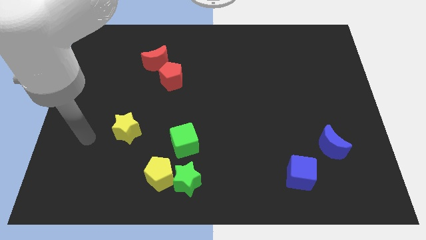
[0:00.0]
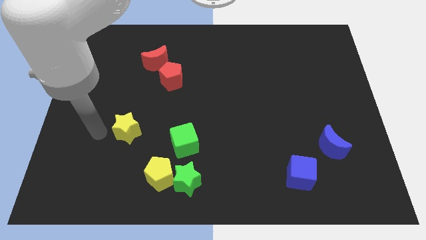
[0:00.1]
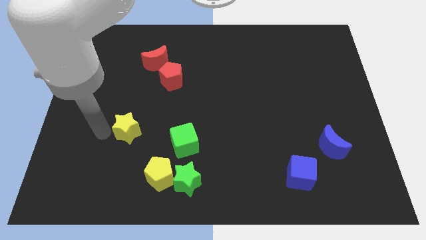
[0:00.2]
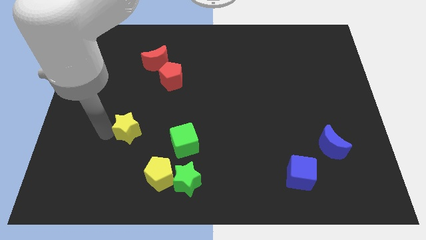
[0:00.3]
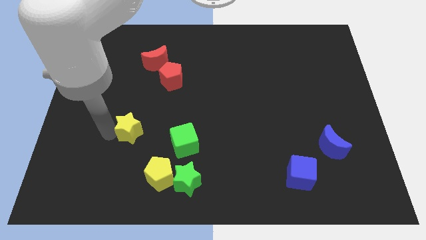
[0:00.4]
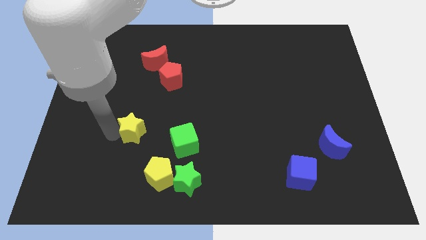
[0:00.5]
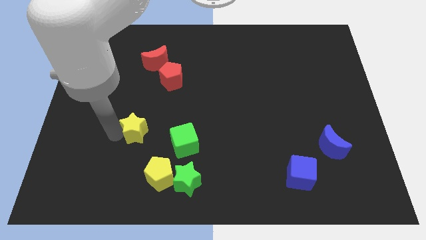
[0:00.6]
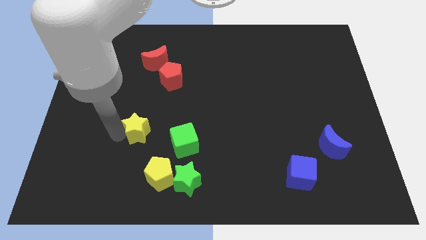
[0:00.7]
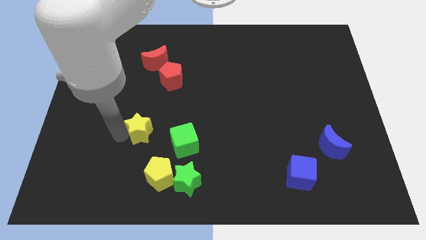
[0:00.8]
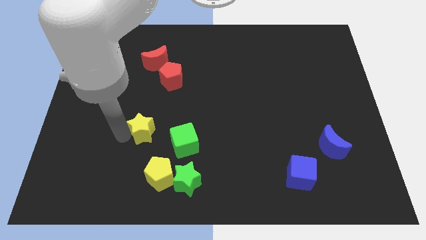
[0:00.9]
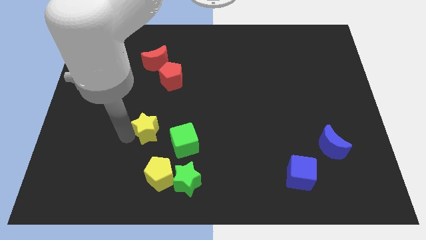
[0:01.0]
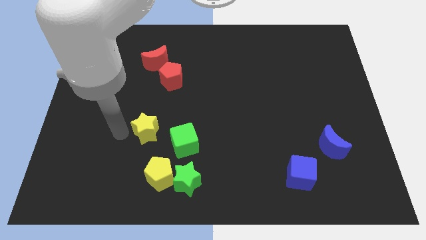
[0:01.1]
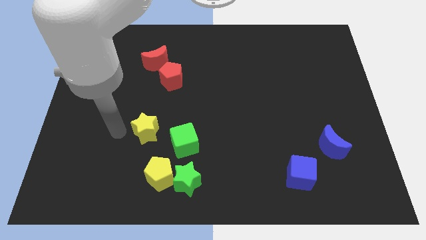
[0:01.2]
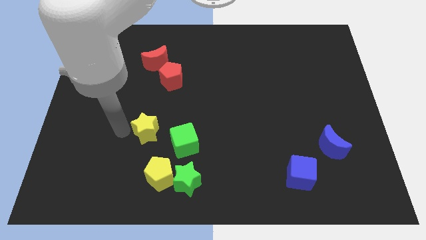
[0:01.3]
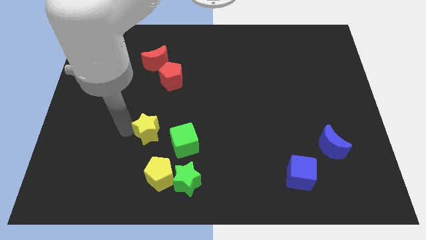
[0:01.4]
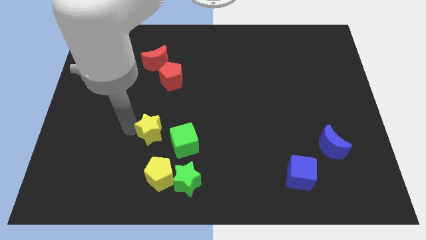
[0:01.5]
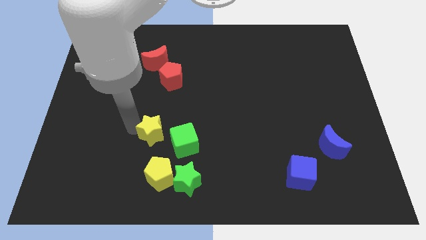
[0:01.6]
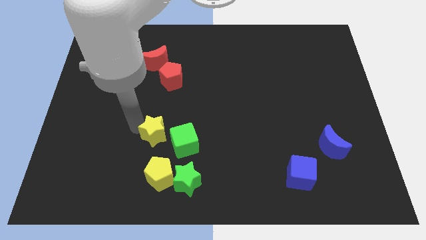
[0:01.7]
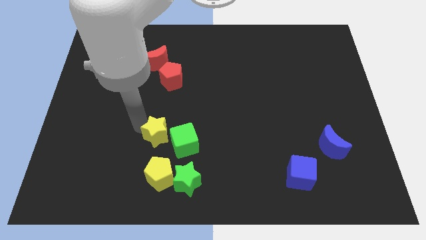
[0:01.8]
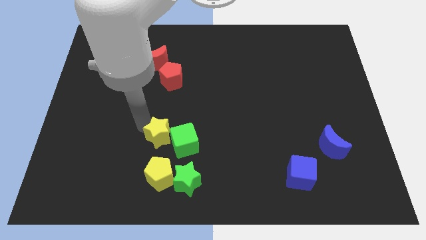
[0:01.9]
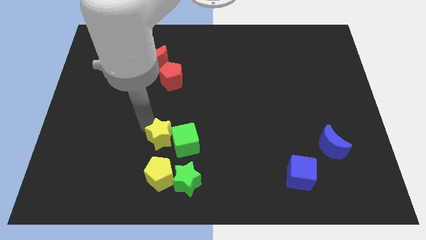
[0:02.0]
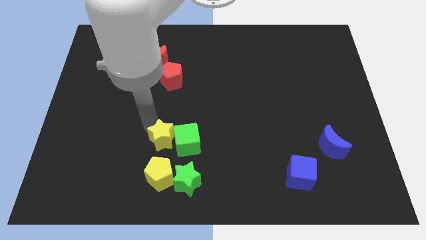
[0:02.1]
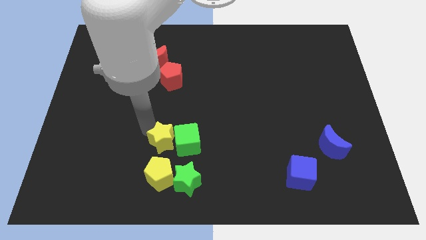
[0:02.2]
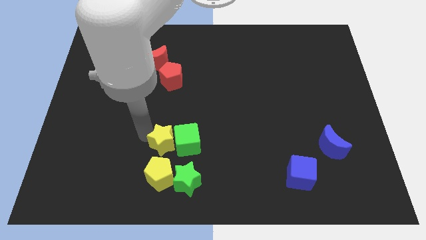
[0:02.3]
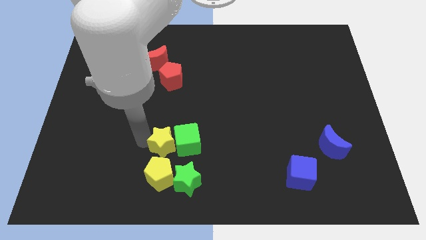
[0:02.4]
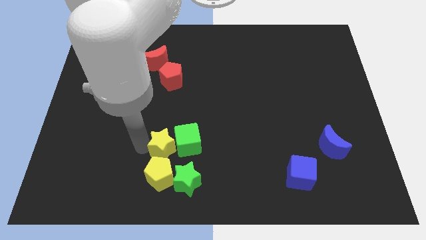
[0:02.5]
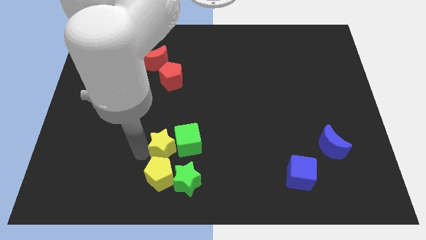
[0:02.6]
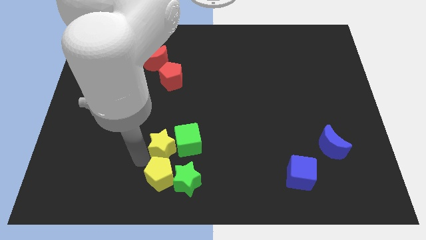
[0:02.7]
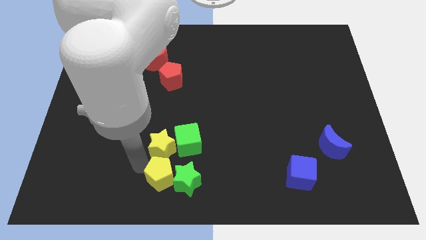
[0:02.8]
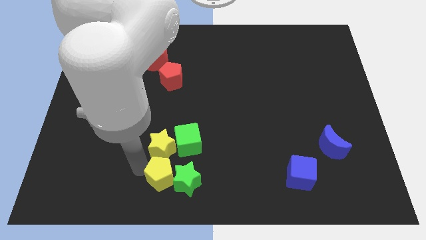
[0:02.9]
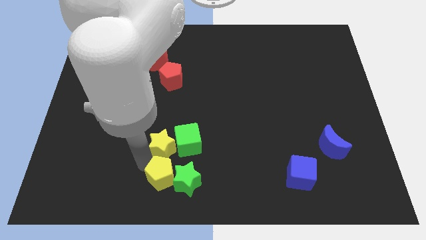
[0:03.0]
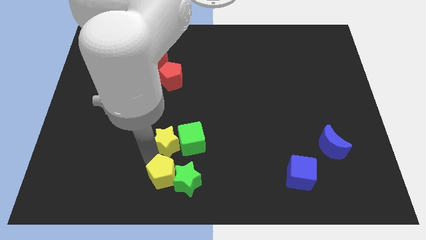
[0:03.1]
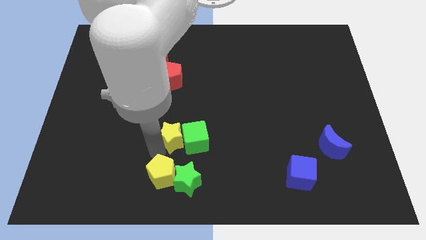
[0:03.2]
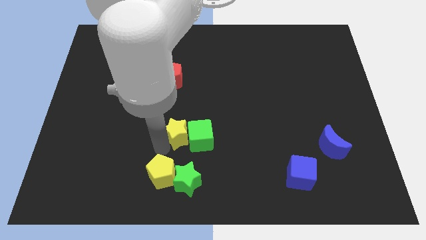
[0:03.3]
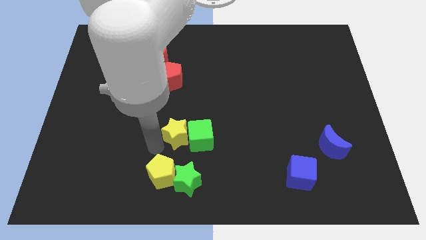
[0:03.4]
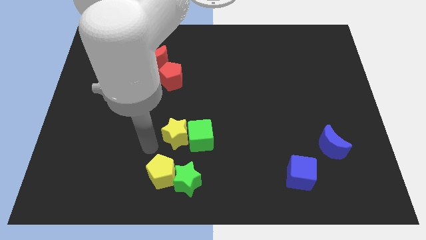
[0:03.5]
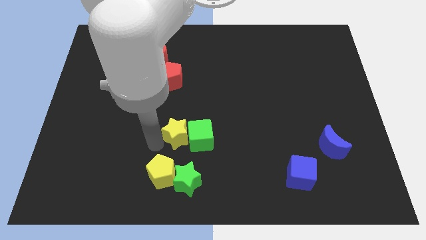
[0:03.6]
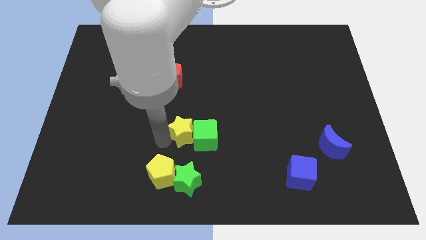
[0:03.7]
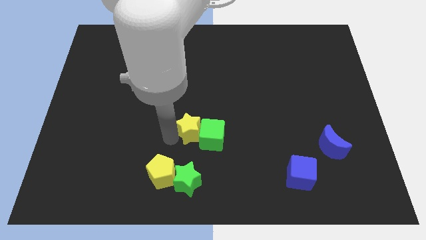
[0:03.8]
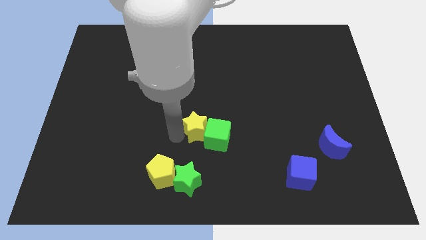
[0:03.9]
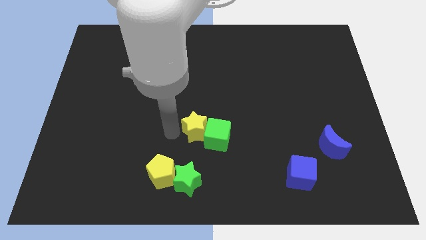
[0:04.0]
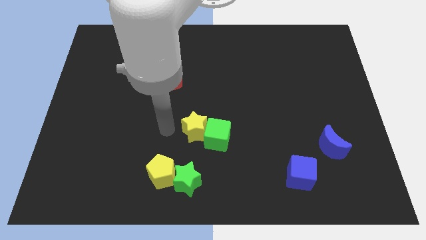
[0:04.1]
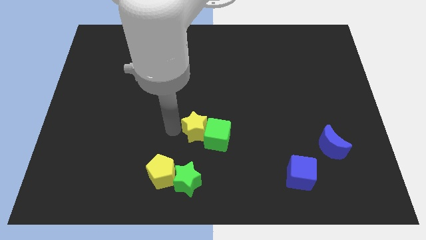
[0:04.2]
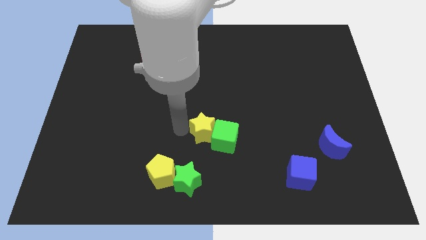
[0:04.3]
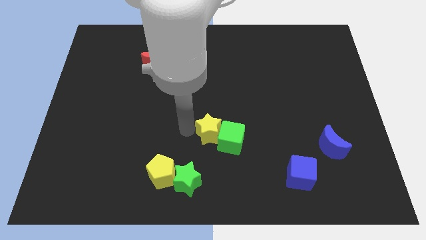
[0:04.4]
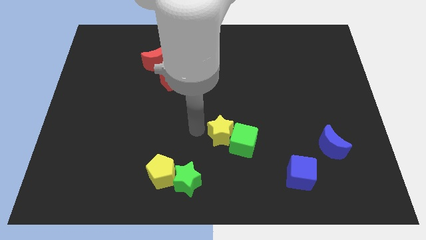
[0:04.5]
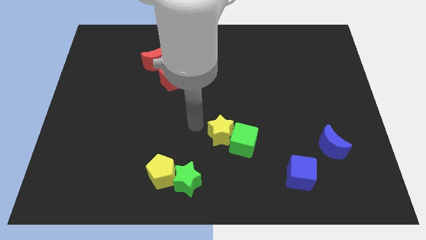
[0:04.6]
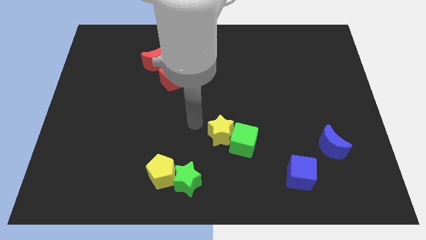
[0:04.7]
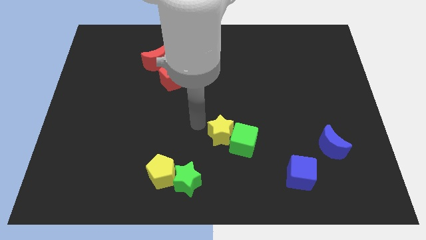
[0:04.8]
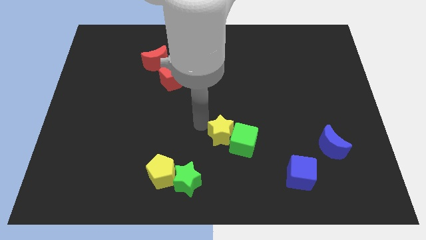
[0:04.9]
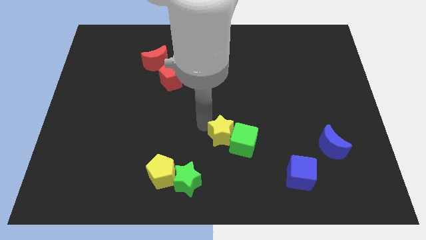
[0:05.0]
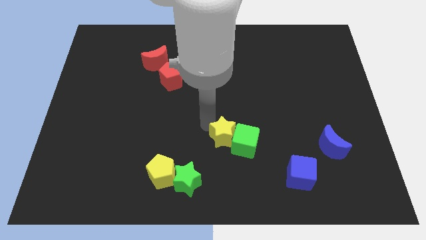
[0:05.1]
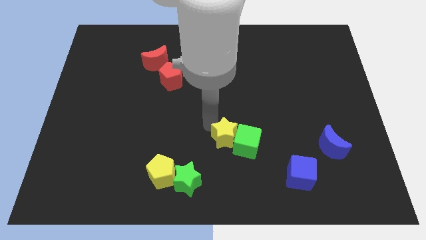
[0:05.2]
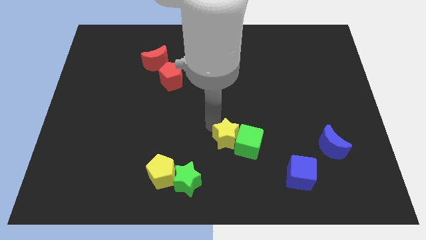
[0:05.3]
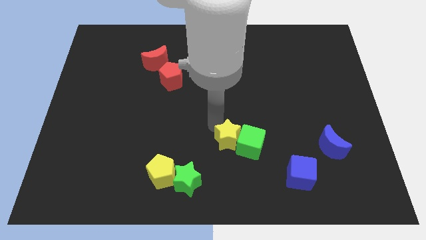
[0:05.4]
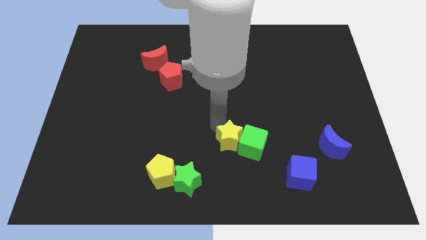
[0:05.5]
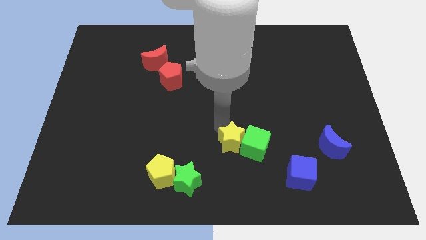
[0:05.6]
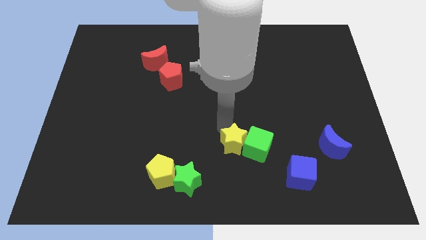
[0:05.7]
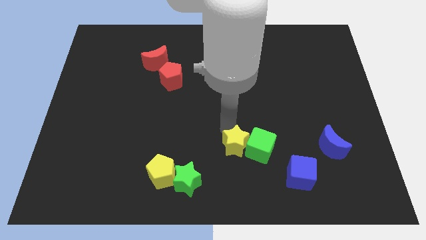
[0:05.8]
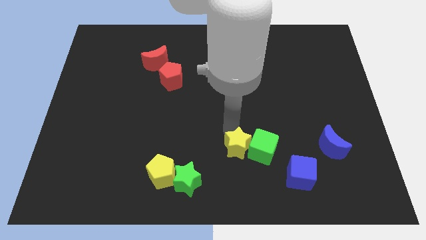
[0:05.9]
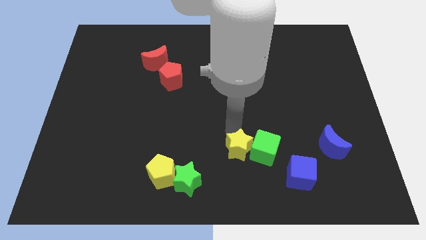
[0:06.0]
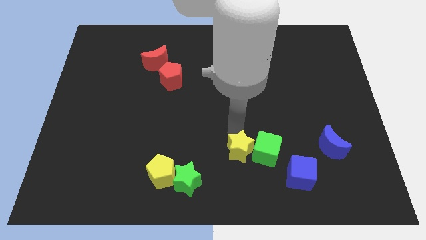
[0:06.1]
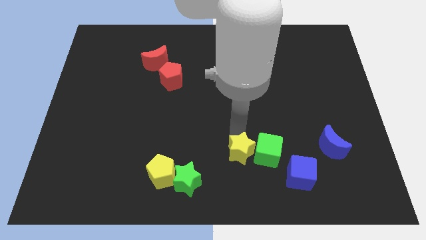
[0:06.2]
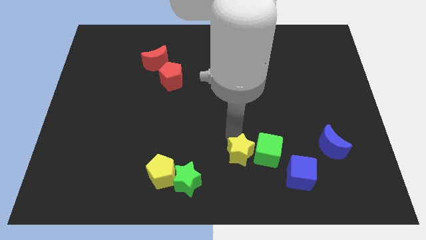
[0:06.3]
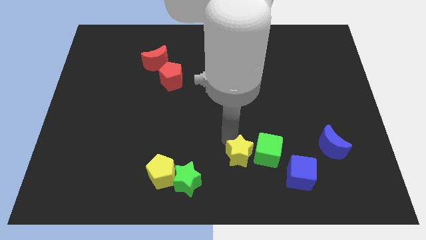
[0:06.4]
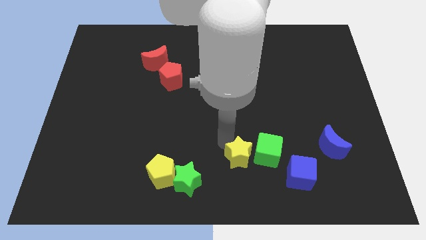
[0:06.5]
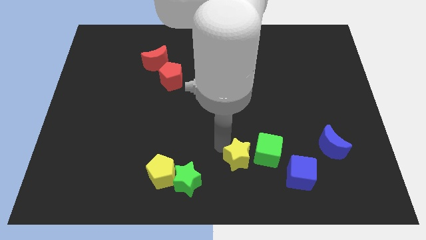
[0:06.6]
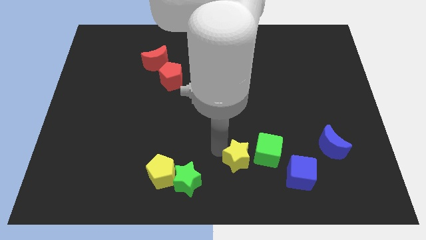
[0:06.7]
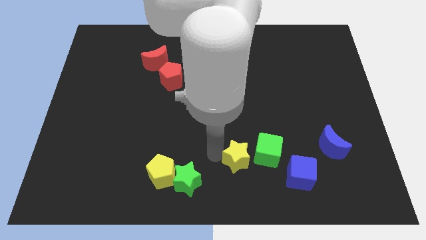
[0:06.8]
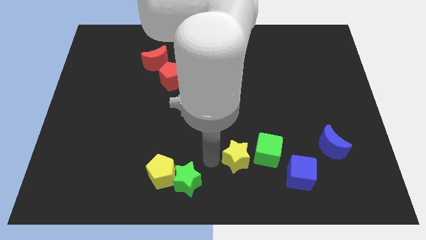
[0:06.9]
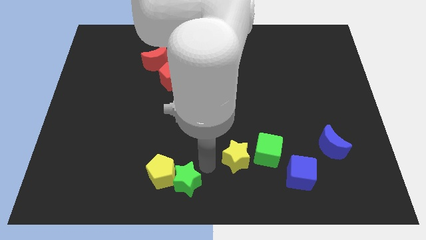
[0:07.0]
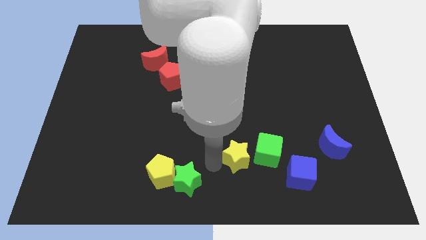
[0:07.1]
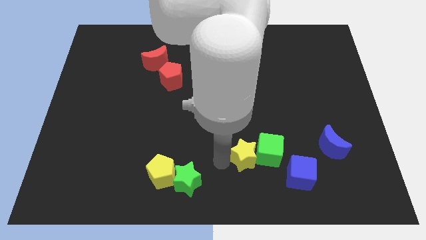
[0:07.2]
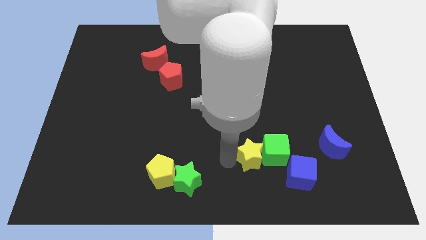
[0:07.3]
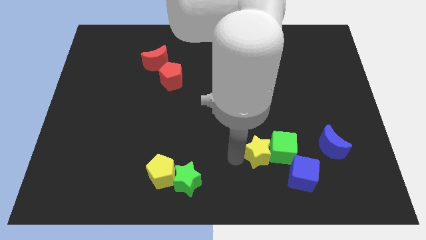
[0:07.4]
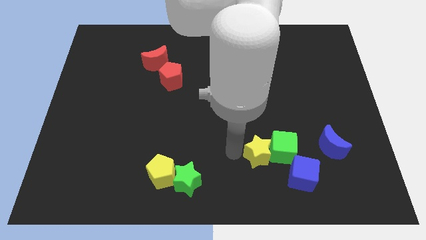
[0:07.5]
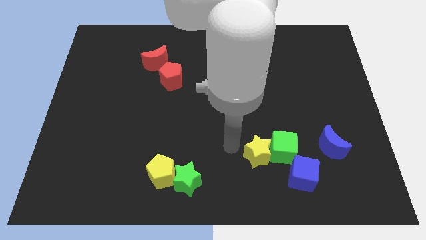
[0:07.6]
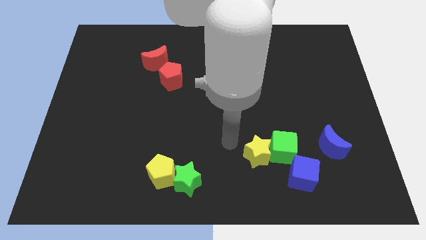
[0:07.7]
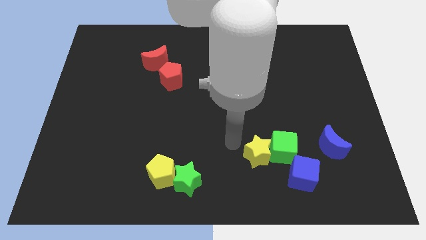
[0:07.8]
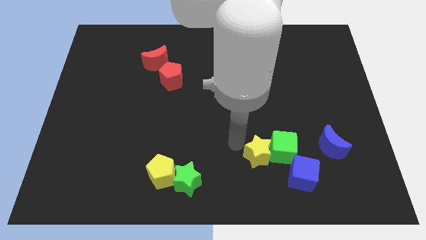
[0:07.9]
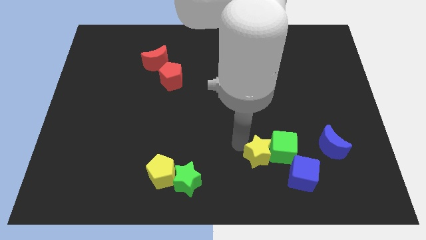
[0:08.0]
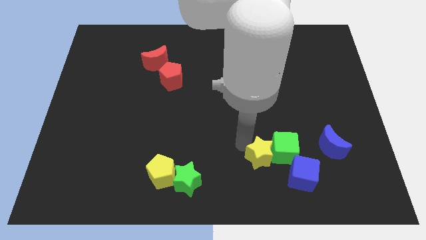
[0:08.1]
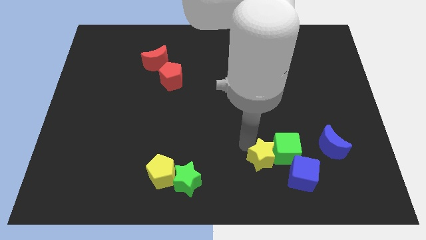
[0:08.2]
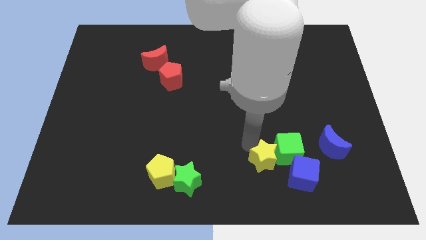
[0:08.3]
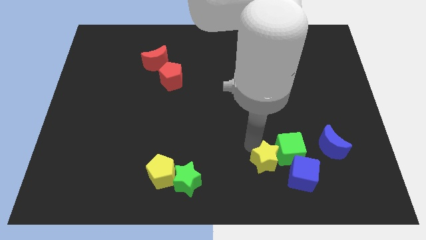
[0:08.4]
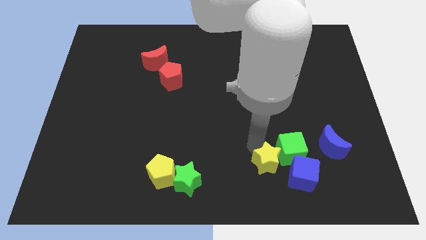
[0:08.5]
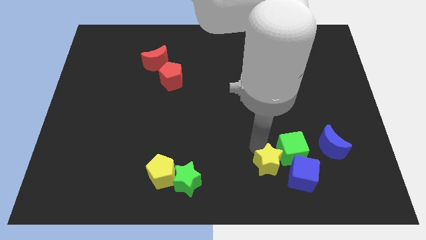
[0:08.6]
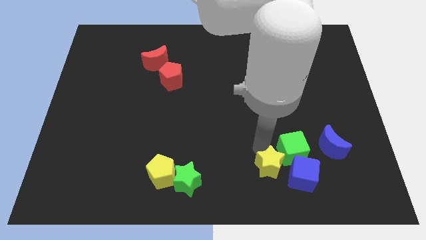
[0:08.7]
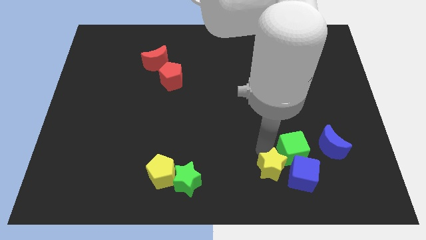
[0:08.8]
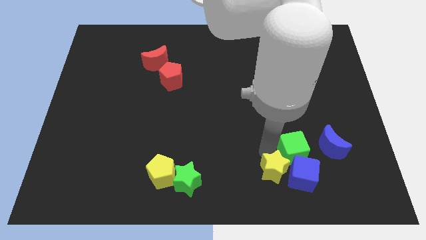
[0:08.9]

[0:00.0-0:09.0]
put the yellow star towards the blue cube
